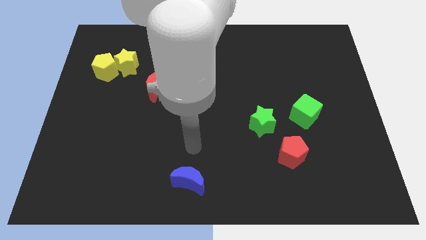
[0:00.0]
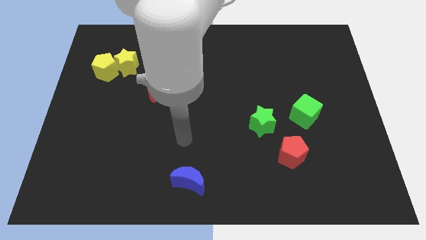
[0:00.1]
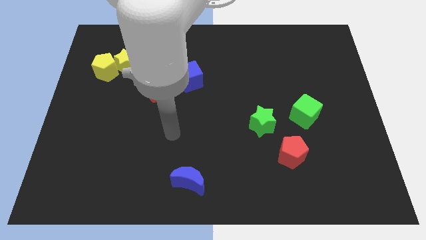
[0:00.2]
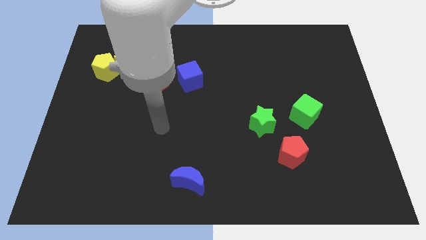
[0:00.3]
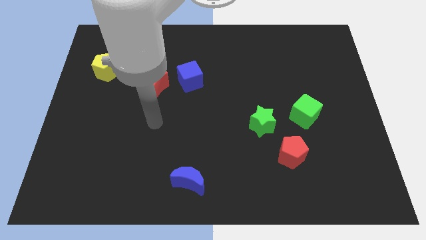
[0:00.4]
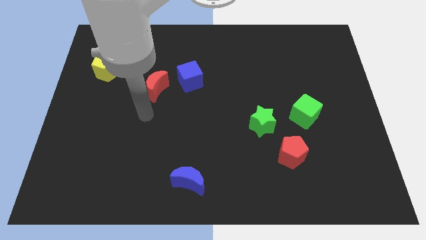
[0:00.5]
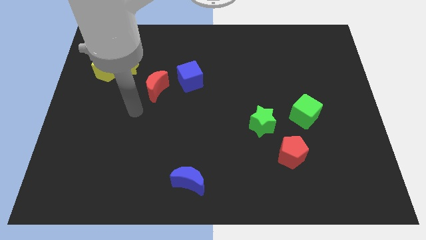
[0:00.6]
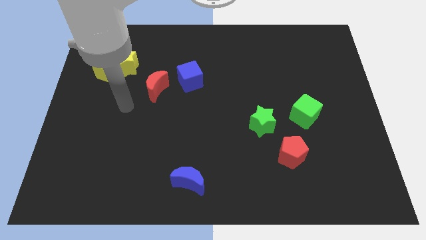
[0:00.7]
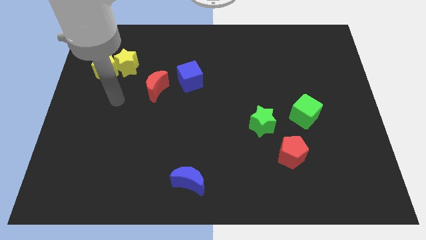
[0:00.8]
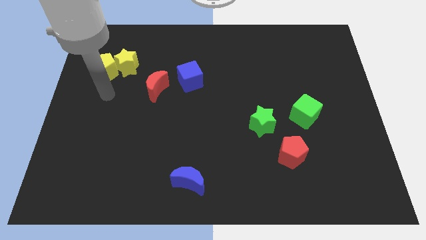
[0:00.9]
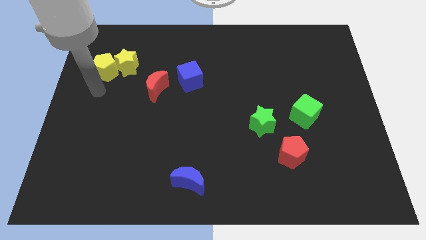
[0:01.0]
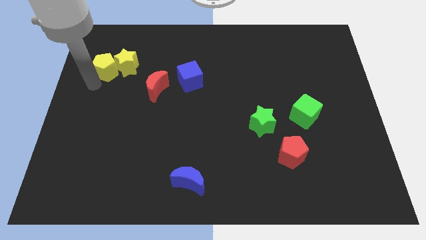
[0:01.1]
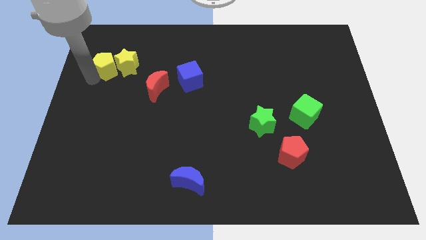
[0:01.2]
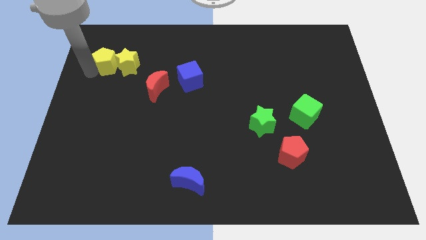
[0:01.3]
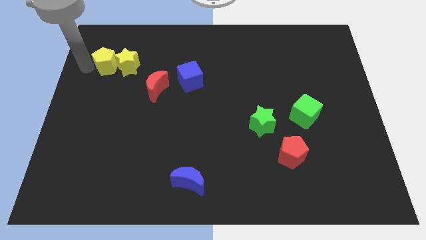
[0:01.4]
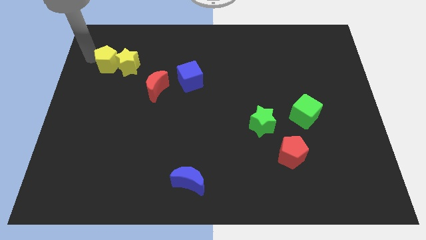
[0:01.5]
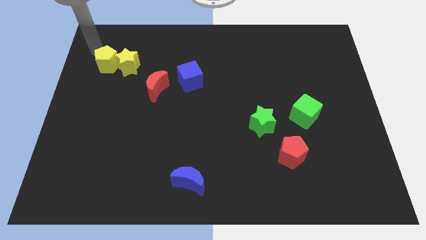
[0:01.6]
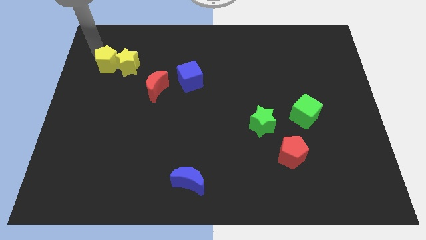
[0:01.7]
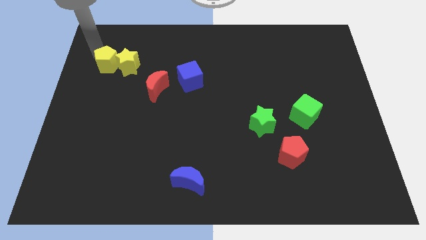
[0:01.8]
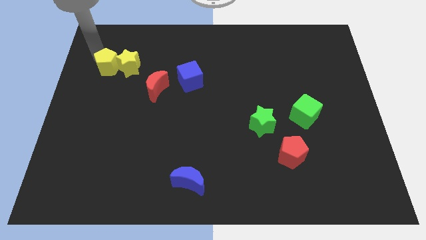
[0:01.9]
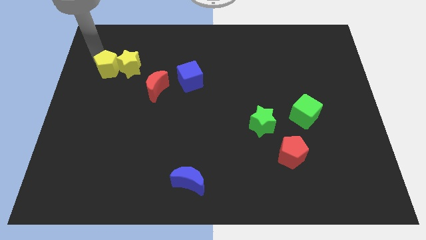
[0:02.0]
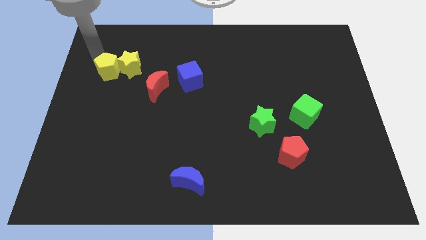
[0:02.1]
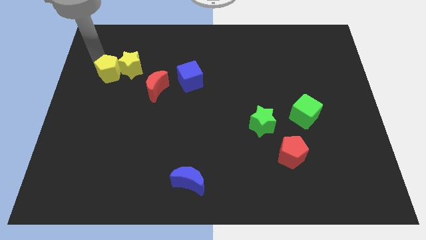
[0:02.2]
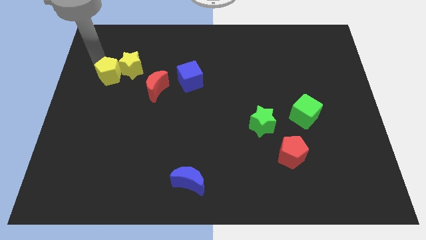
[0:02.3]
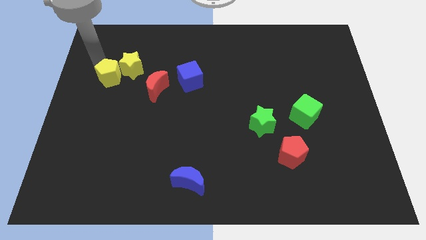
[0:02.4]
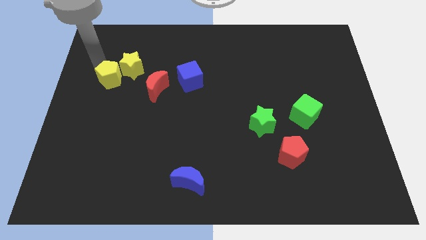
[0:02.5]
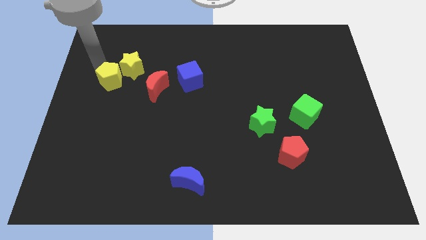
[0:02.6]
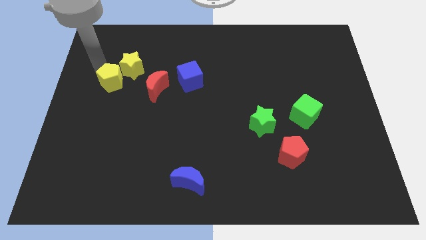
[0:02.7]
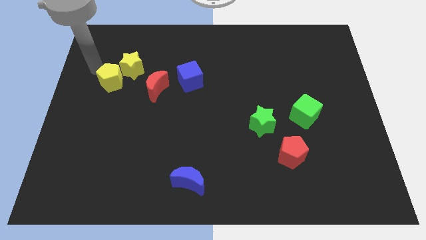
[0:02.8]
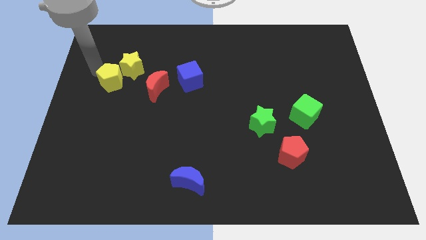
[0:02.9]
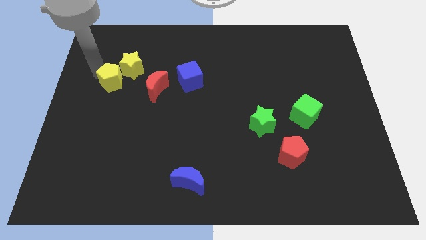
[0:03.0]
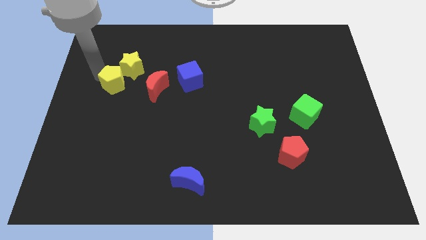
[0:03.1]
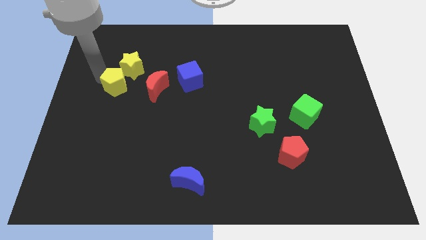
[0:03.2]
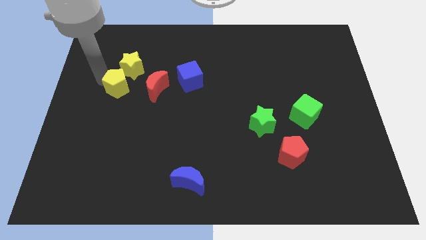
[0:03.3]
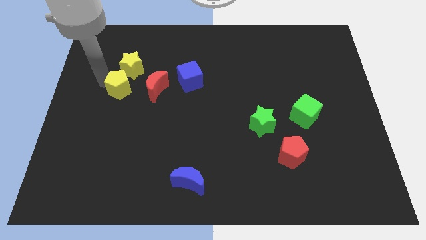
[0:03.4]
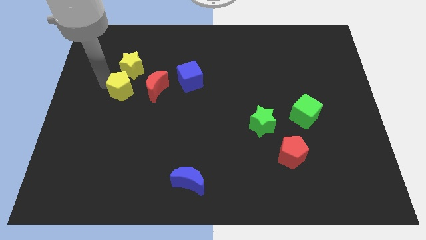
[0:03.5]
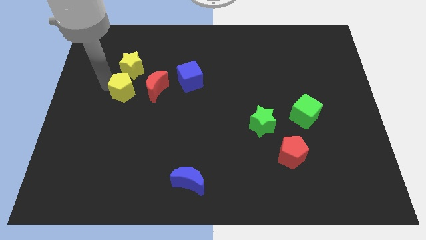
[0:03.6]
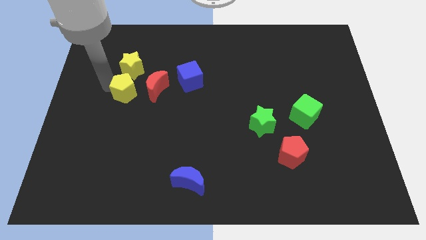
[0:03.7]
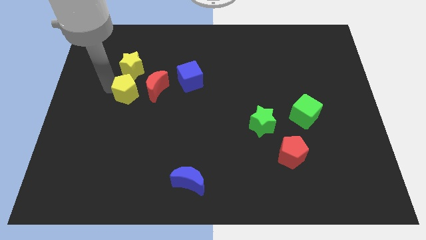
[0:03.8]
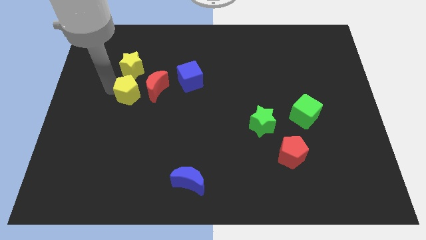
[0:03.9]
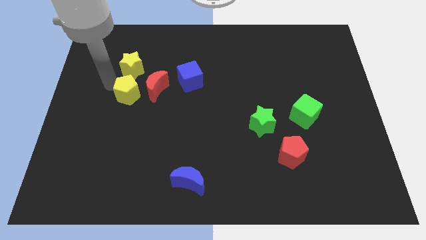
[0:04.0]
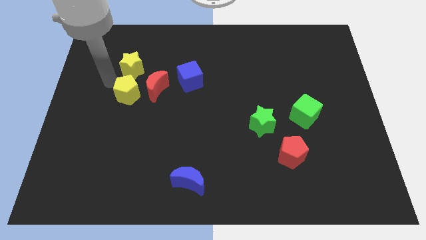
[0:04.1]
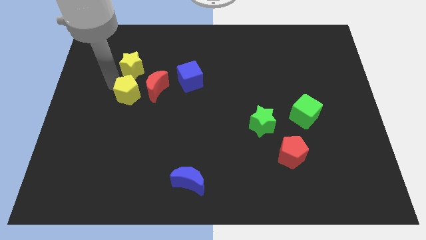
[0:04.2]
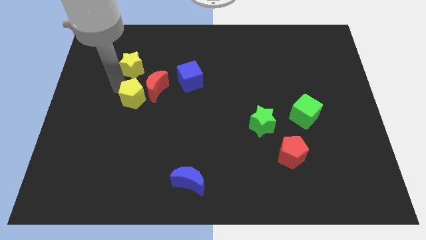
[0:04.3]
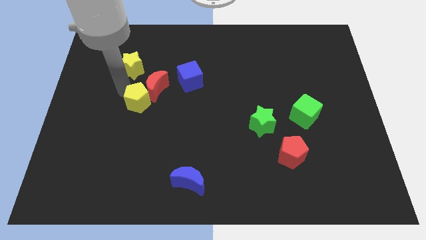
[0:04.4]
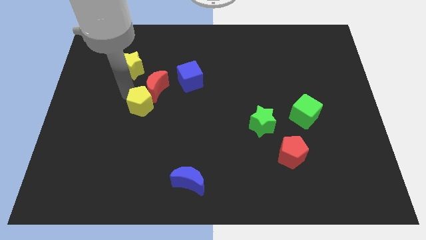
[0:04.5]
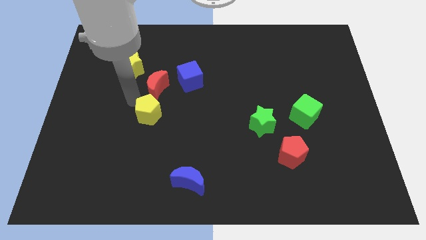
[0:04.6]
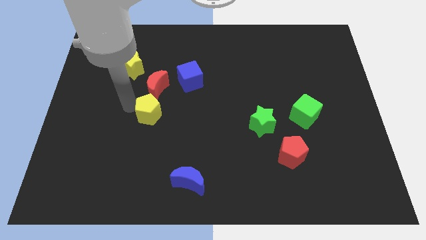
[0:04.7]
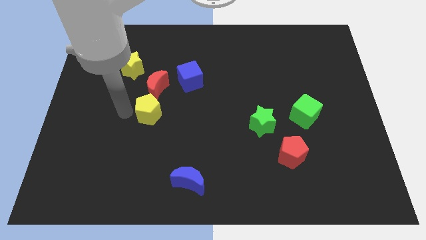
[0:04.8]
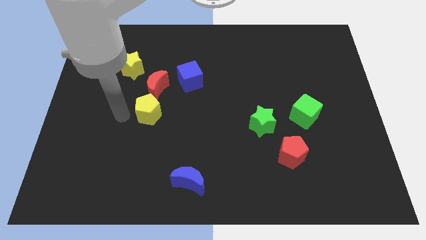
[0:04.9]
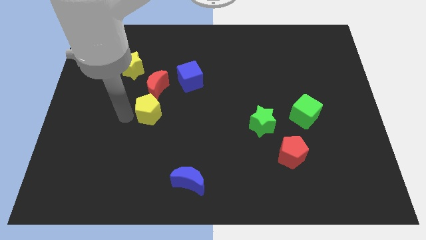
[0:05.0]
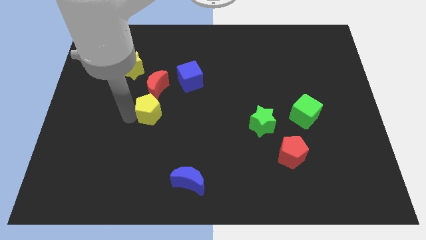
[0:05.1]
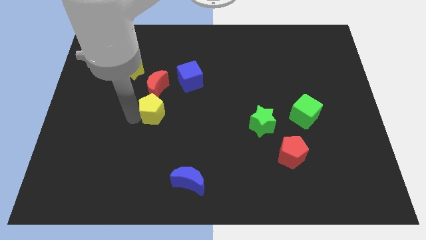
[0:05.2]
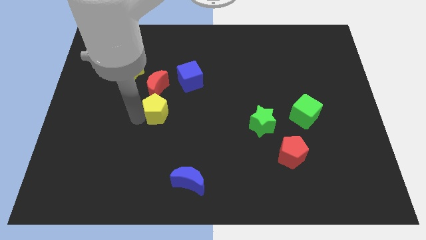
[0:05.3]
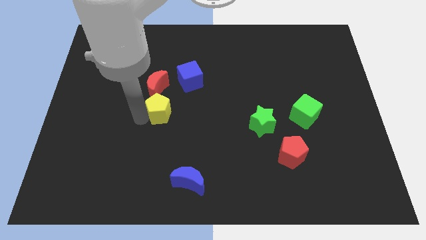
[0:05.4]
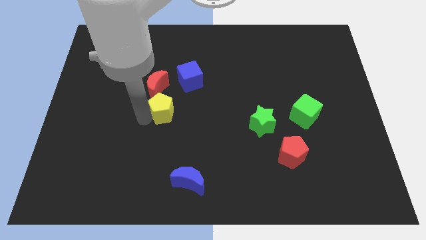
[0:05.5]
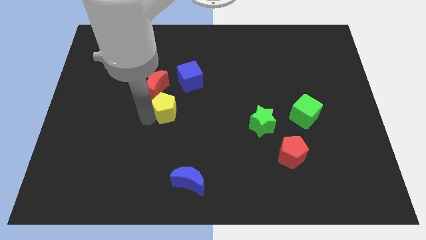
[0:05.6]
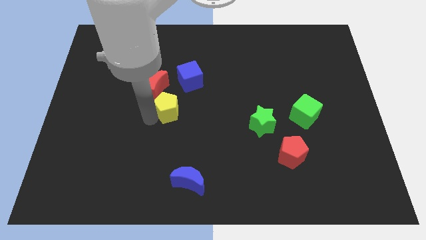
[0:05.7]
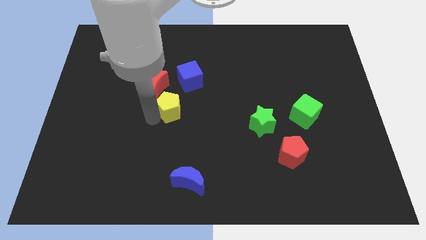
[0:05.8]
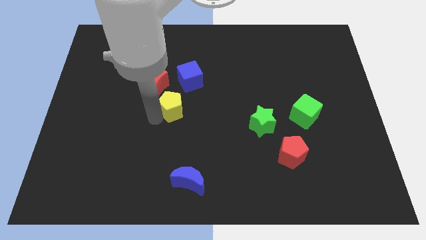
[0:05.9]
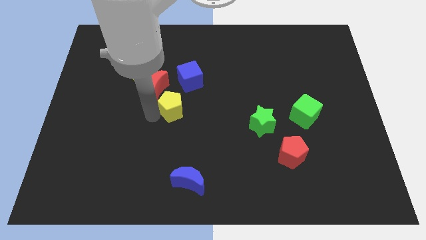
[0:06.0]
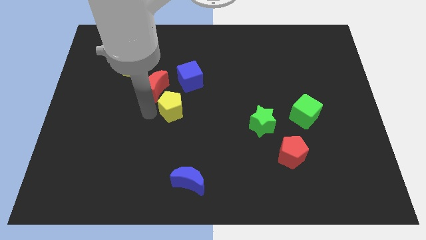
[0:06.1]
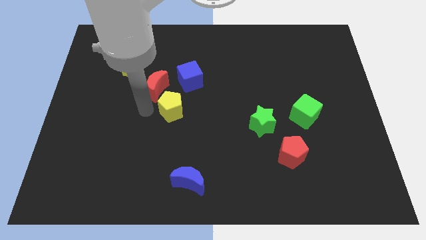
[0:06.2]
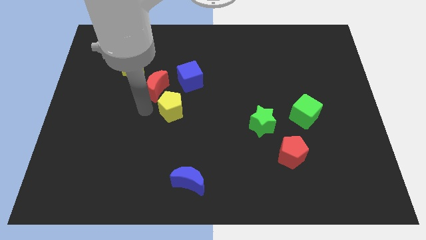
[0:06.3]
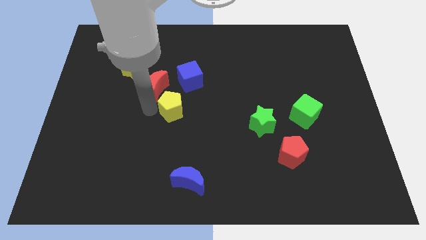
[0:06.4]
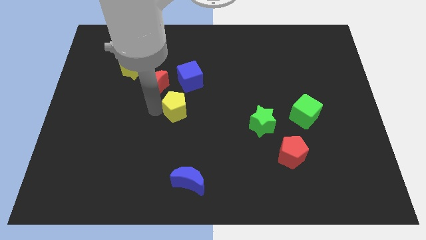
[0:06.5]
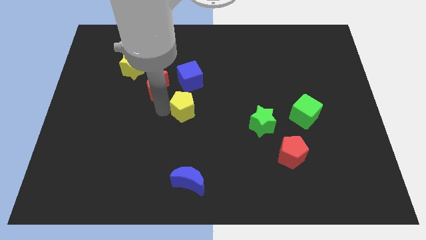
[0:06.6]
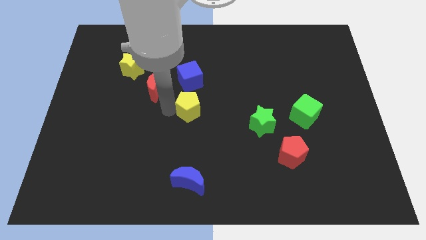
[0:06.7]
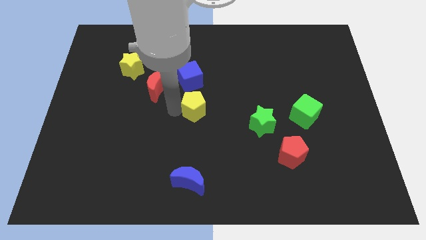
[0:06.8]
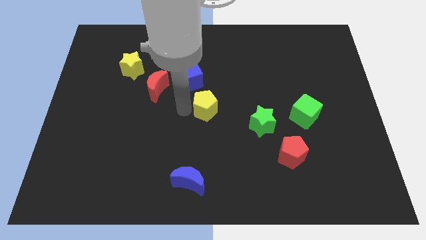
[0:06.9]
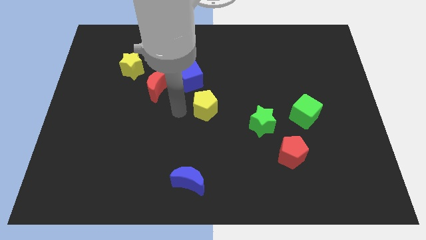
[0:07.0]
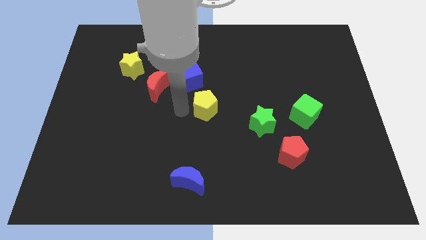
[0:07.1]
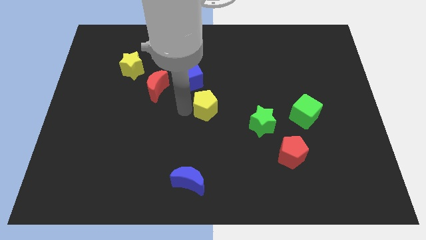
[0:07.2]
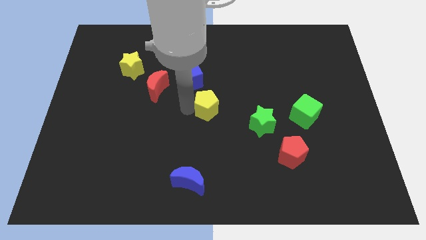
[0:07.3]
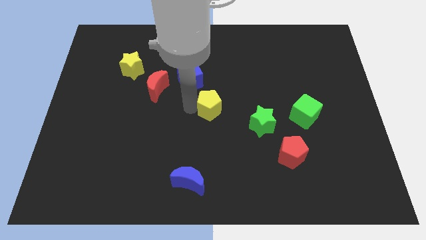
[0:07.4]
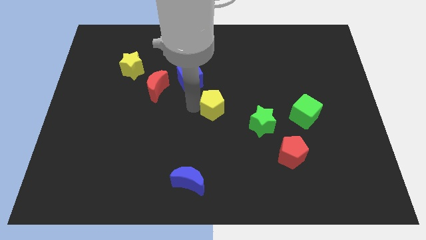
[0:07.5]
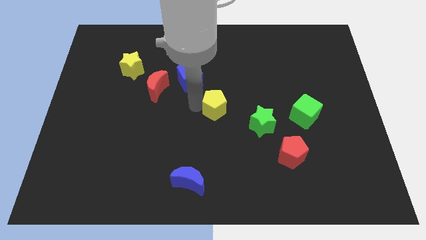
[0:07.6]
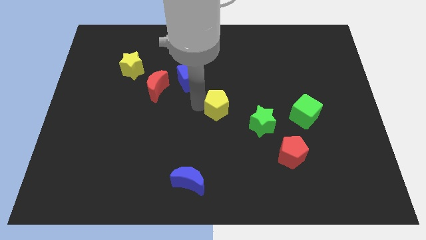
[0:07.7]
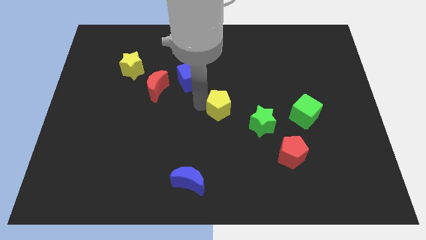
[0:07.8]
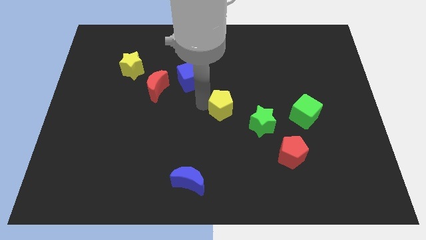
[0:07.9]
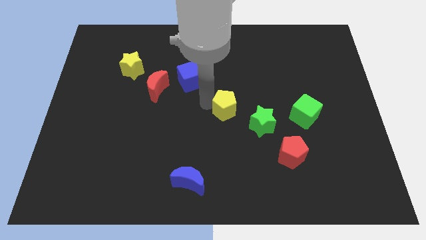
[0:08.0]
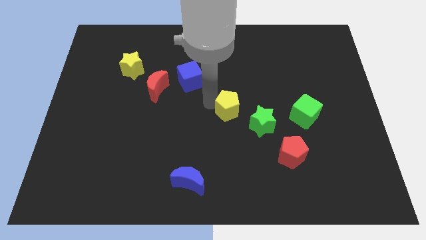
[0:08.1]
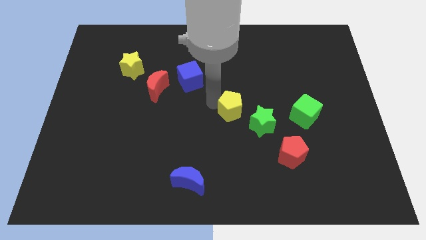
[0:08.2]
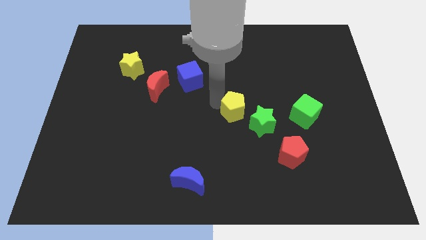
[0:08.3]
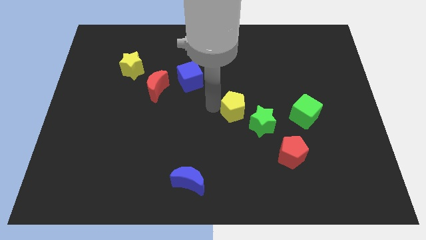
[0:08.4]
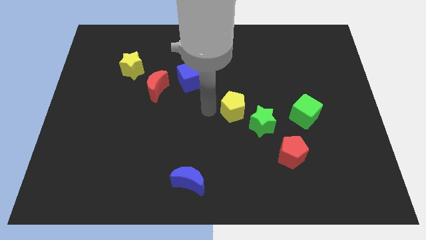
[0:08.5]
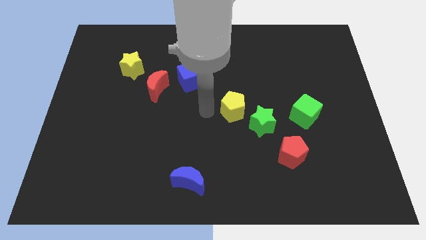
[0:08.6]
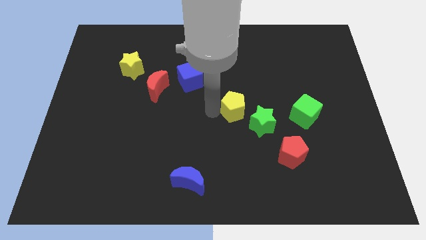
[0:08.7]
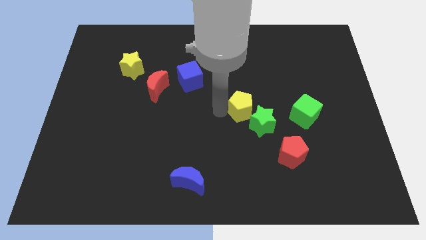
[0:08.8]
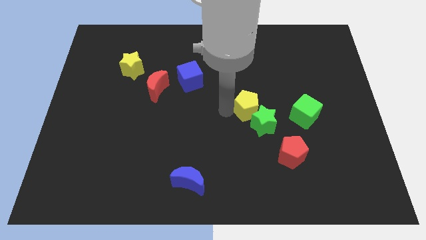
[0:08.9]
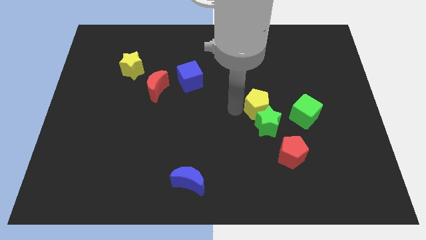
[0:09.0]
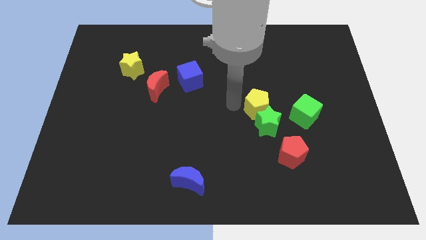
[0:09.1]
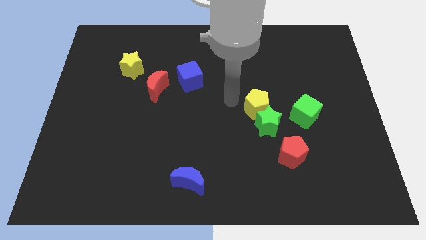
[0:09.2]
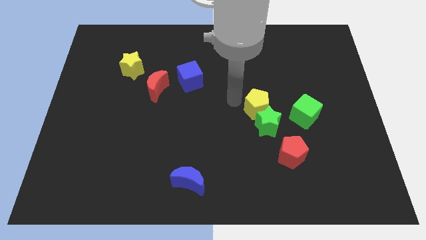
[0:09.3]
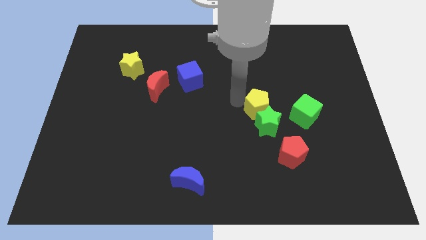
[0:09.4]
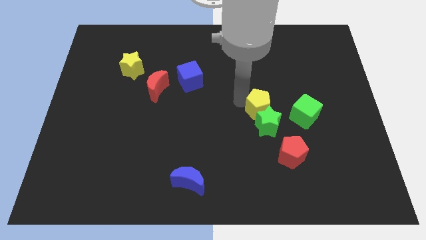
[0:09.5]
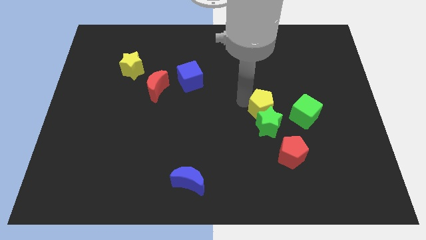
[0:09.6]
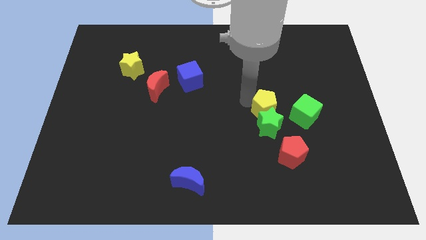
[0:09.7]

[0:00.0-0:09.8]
push the yellow pentagon to the top of the red pentagon
